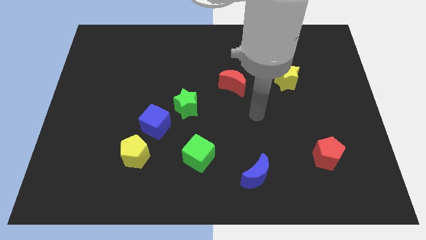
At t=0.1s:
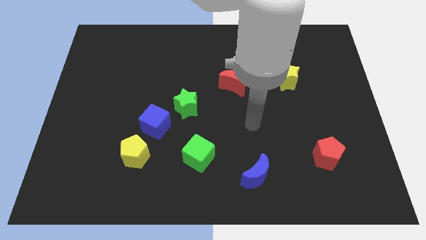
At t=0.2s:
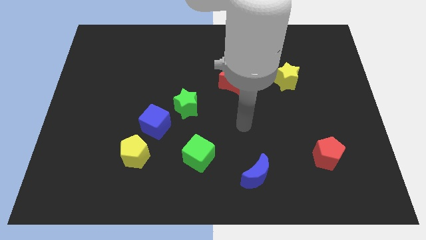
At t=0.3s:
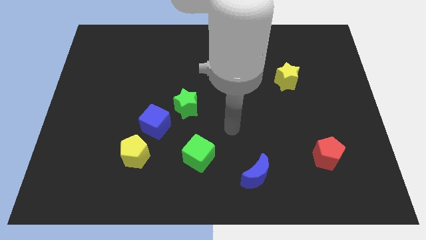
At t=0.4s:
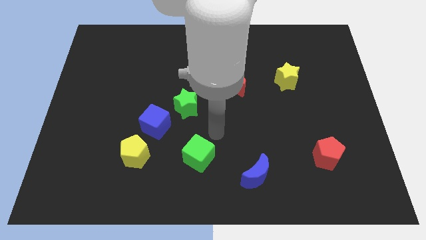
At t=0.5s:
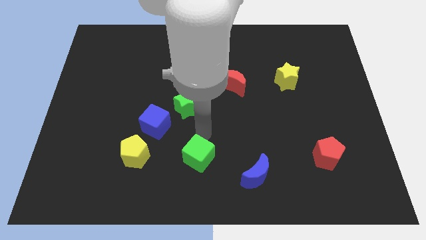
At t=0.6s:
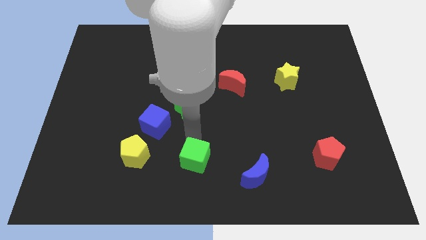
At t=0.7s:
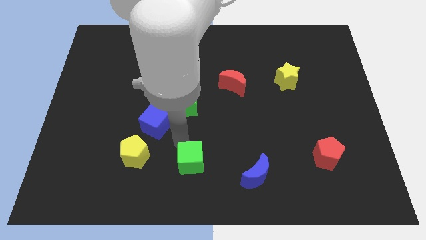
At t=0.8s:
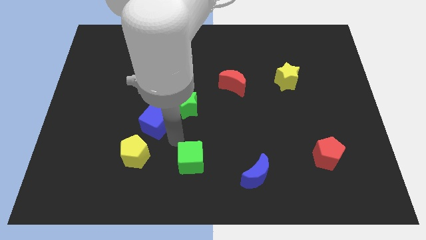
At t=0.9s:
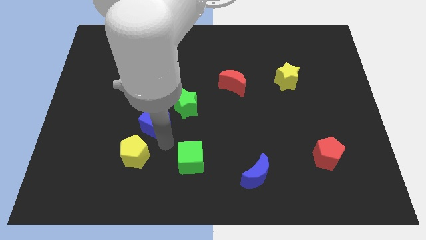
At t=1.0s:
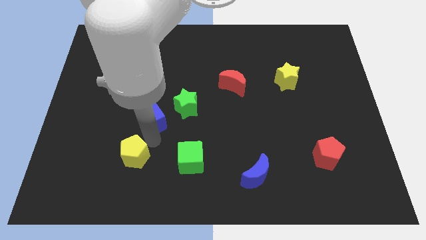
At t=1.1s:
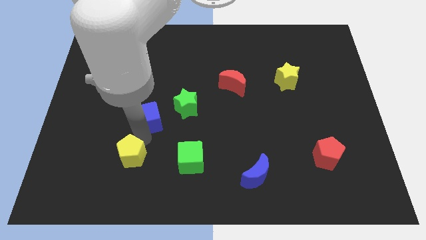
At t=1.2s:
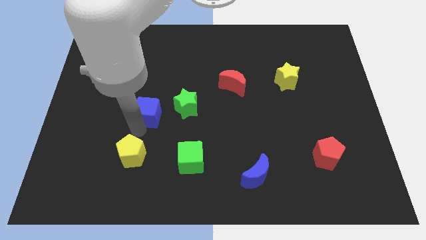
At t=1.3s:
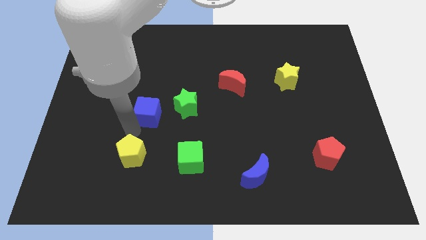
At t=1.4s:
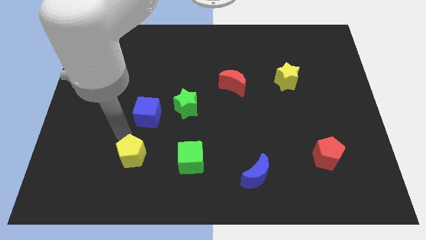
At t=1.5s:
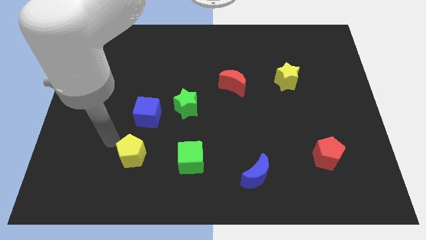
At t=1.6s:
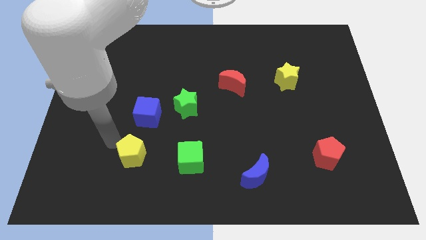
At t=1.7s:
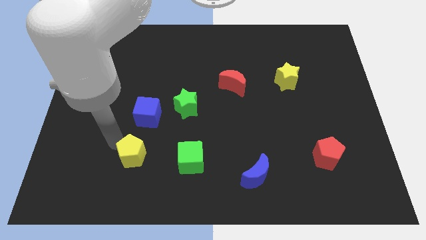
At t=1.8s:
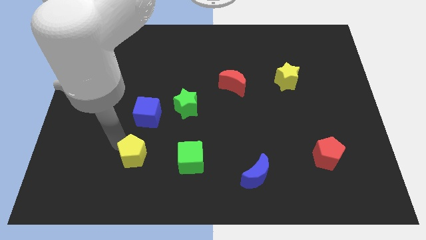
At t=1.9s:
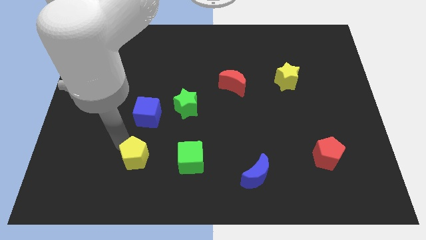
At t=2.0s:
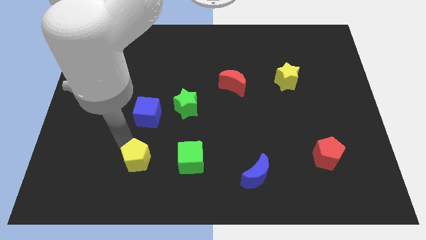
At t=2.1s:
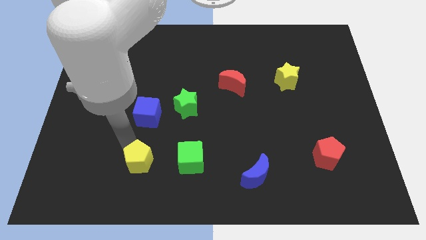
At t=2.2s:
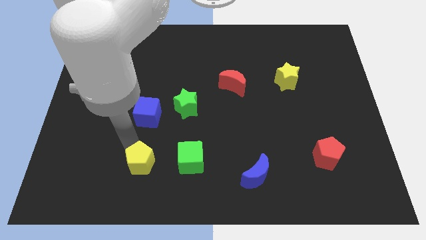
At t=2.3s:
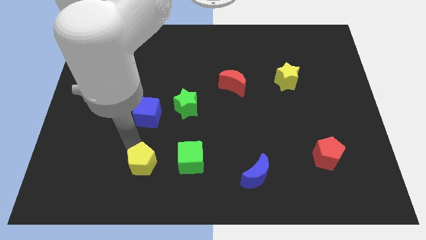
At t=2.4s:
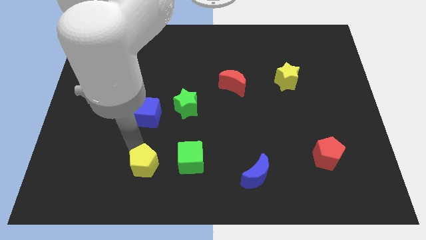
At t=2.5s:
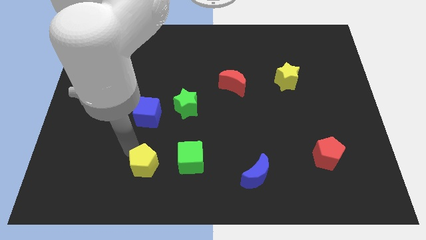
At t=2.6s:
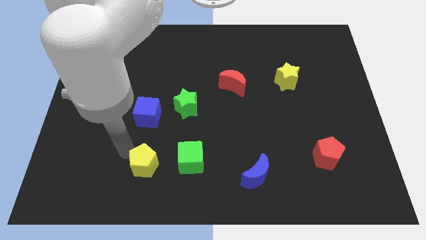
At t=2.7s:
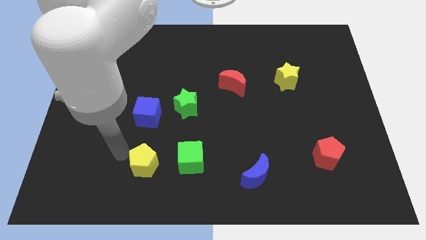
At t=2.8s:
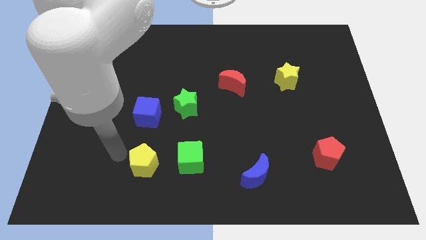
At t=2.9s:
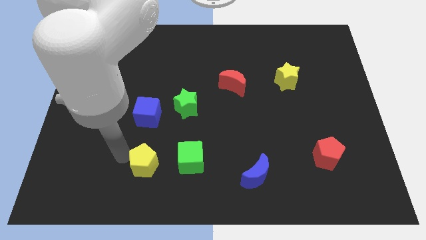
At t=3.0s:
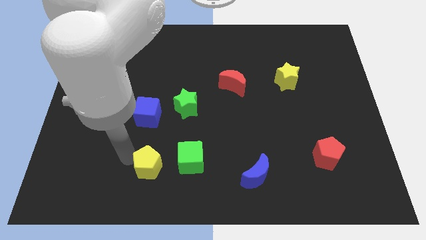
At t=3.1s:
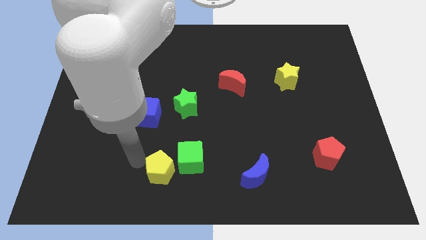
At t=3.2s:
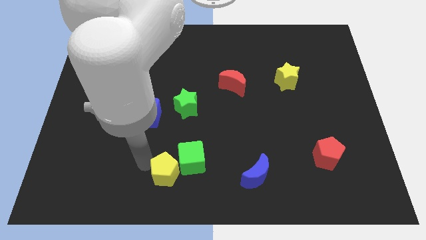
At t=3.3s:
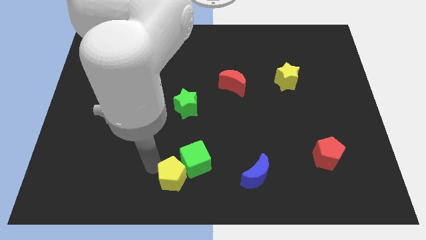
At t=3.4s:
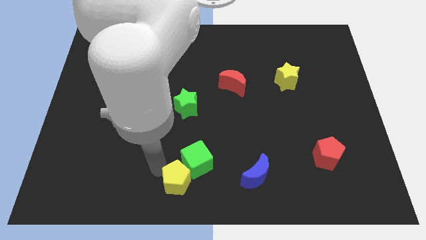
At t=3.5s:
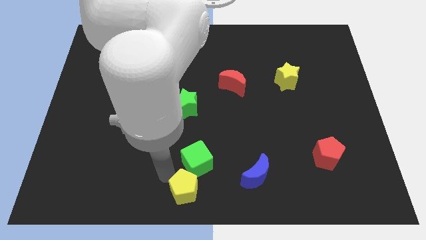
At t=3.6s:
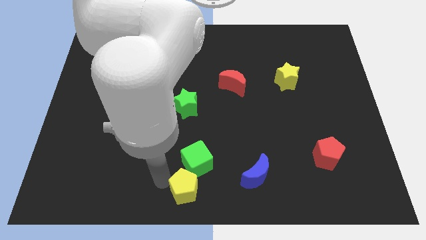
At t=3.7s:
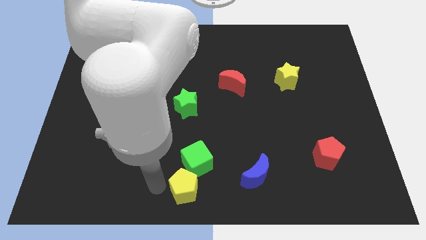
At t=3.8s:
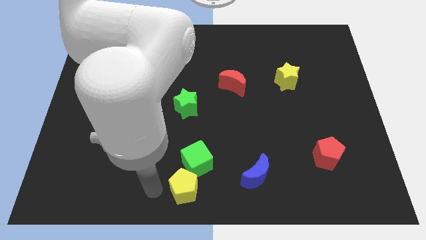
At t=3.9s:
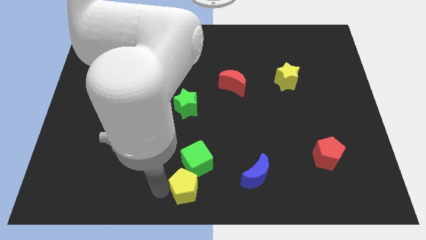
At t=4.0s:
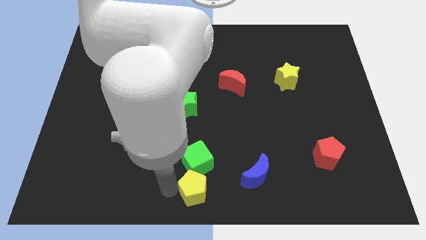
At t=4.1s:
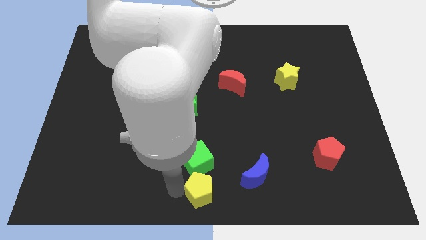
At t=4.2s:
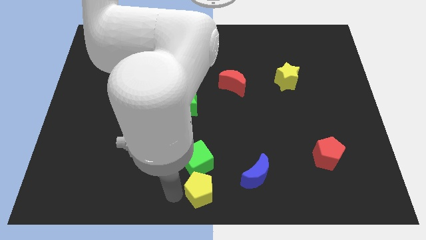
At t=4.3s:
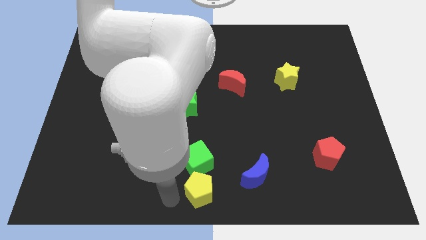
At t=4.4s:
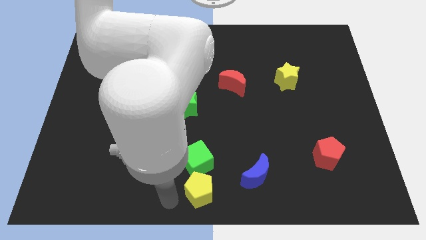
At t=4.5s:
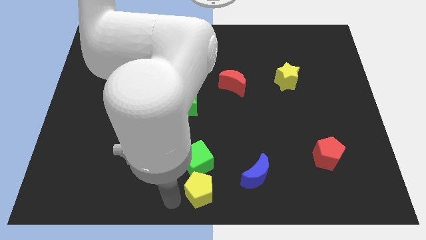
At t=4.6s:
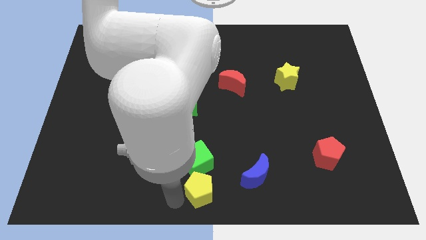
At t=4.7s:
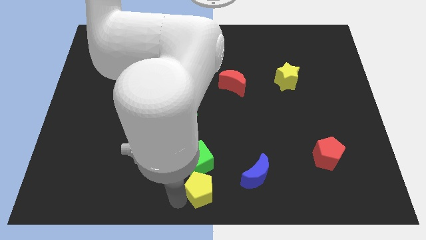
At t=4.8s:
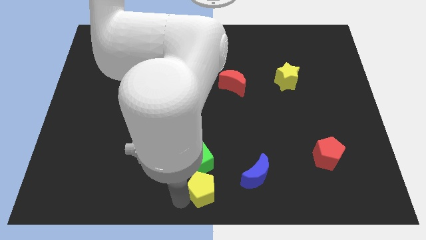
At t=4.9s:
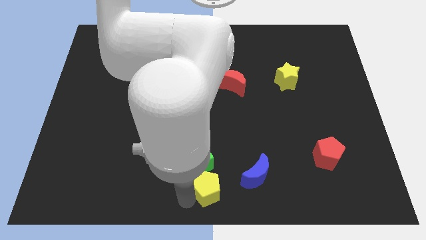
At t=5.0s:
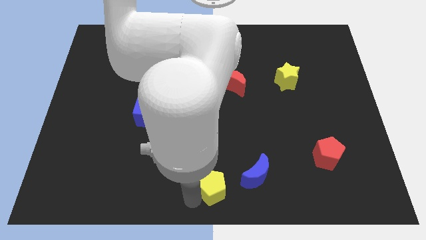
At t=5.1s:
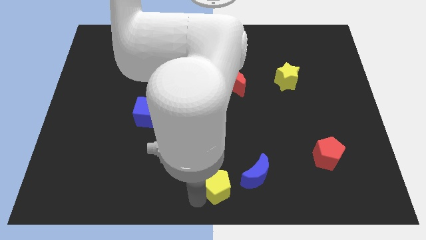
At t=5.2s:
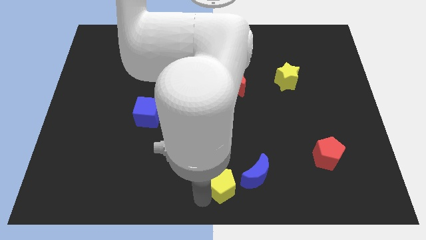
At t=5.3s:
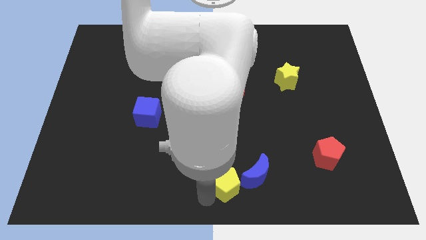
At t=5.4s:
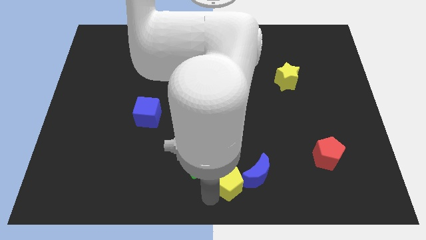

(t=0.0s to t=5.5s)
push the yellow pentagon next to the blue moon

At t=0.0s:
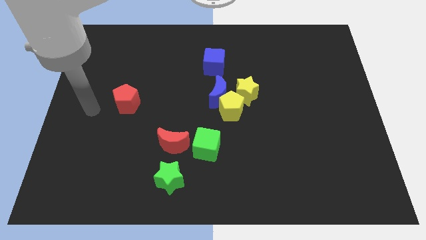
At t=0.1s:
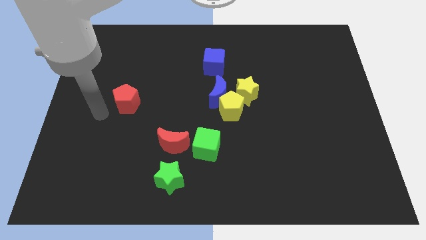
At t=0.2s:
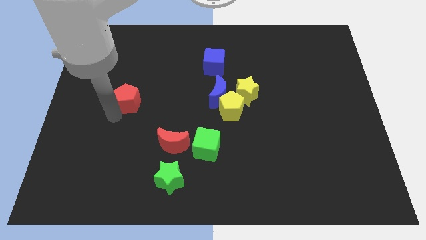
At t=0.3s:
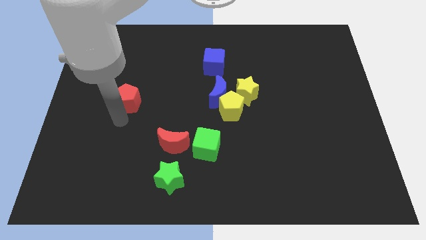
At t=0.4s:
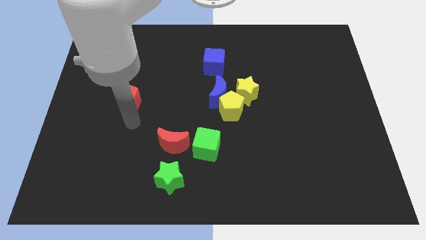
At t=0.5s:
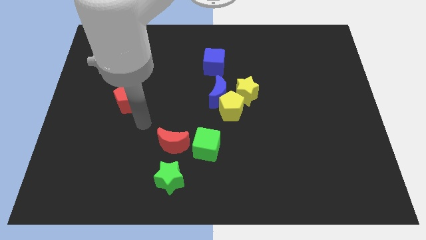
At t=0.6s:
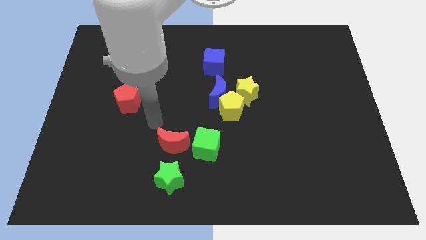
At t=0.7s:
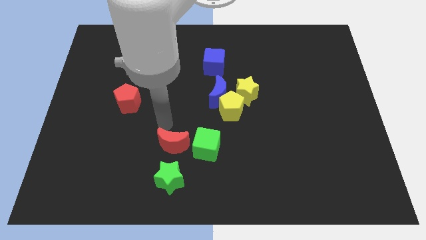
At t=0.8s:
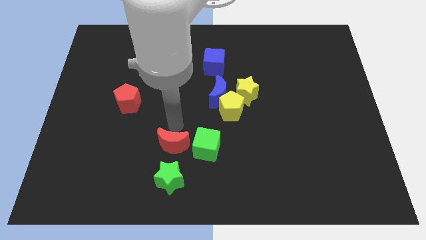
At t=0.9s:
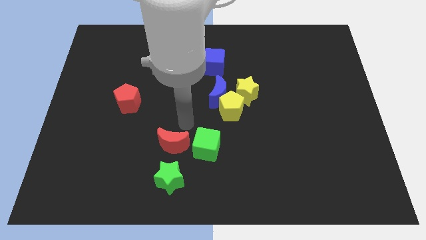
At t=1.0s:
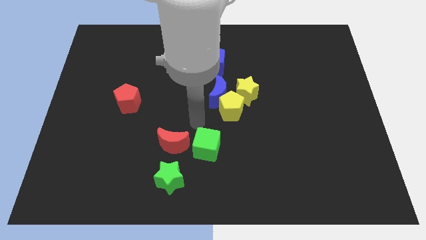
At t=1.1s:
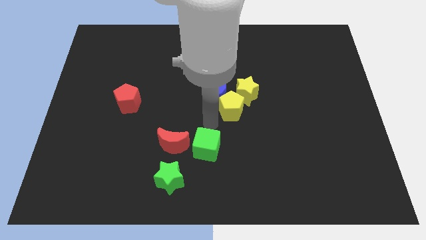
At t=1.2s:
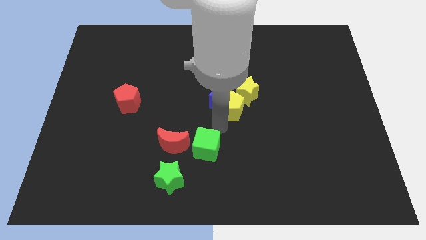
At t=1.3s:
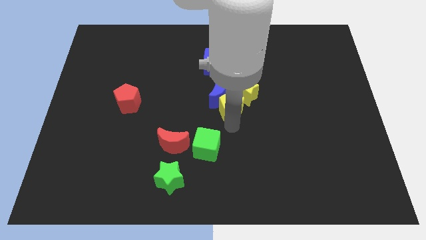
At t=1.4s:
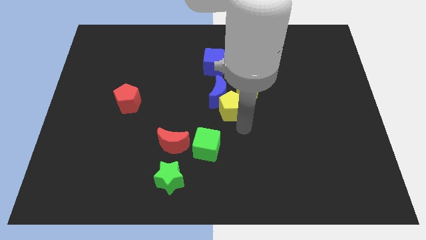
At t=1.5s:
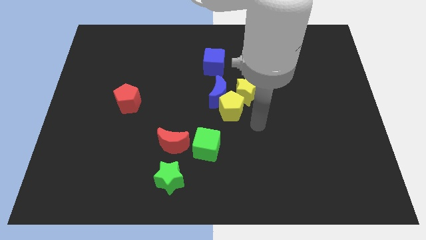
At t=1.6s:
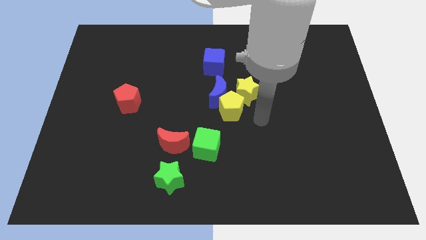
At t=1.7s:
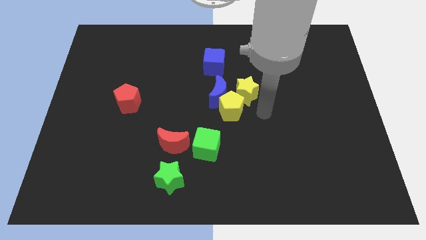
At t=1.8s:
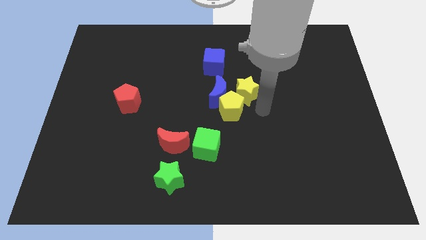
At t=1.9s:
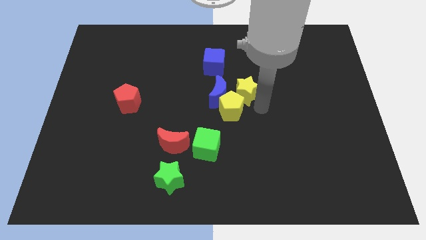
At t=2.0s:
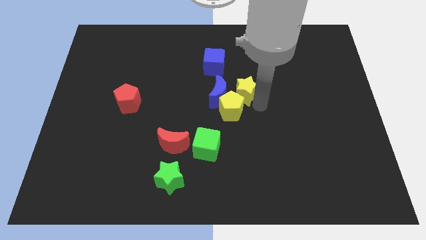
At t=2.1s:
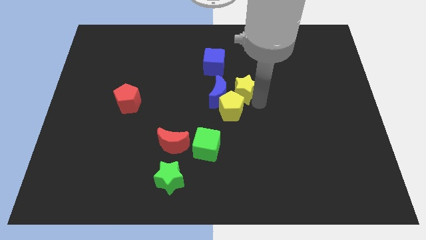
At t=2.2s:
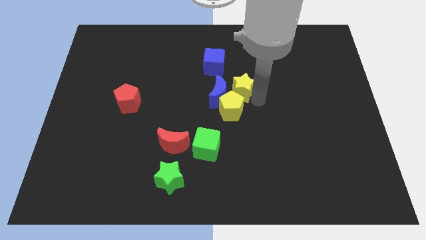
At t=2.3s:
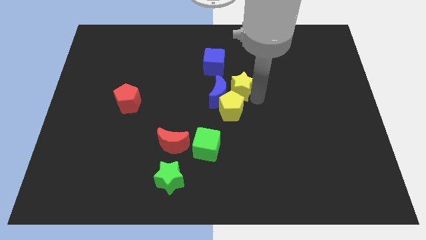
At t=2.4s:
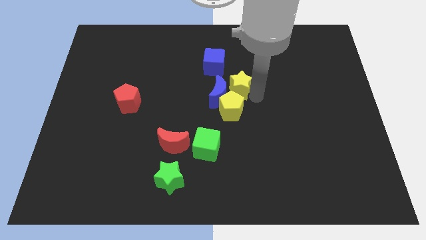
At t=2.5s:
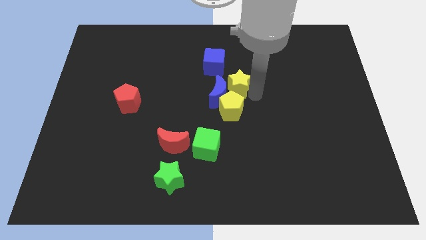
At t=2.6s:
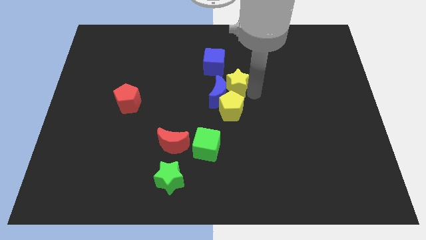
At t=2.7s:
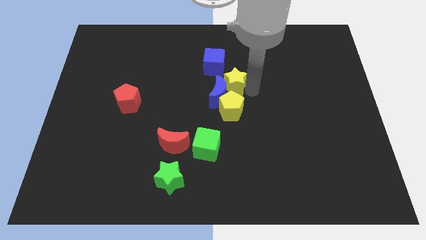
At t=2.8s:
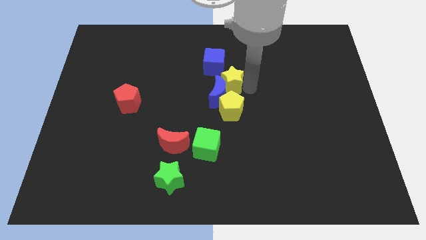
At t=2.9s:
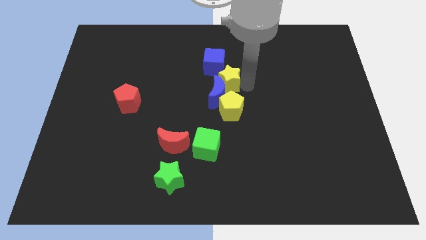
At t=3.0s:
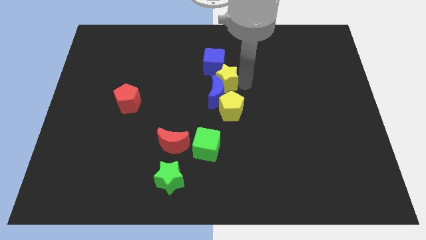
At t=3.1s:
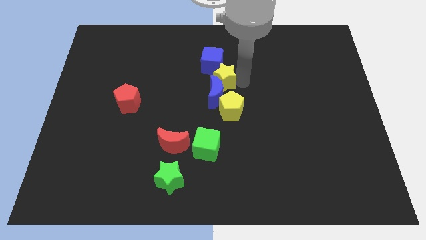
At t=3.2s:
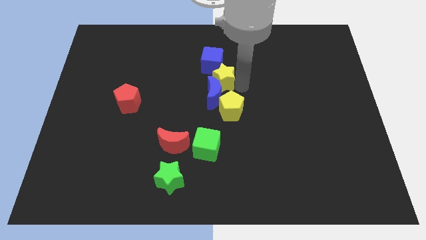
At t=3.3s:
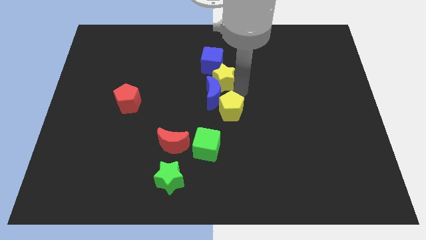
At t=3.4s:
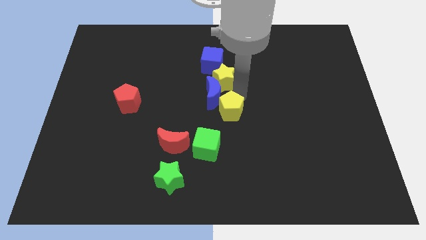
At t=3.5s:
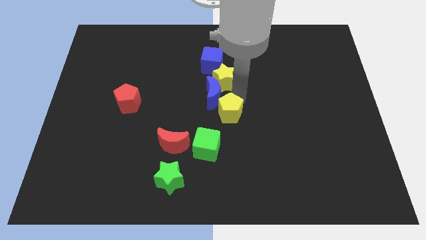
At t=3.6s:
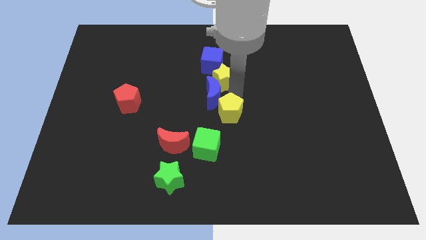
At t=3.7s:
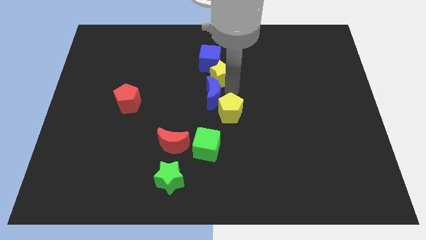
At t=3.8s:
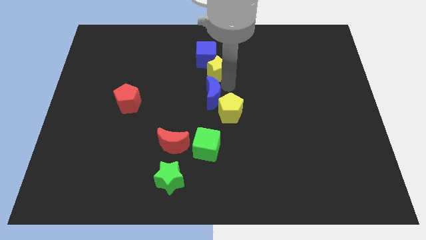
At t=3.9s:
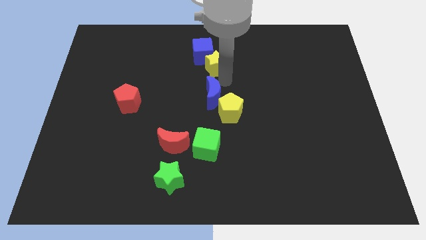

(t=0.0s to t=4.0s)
push the yellow star to the blue cube
